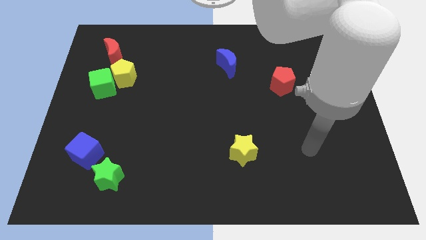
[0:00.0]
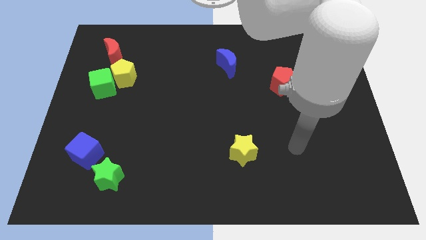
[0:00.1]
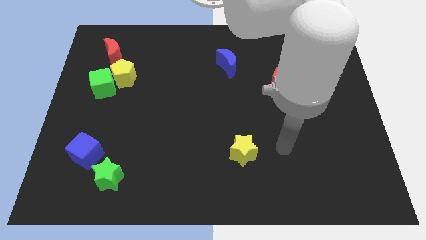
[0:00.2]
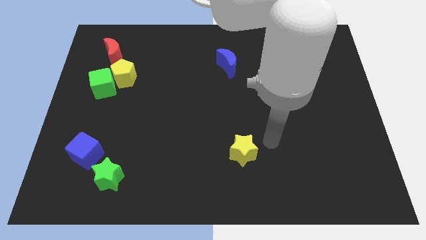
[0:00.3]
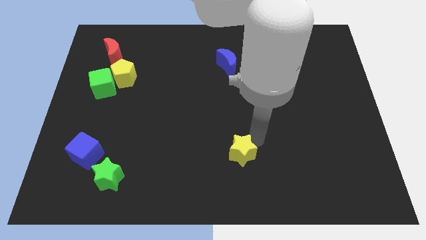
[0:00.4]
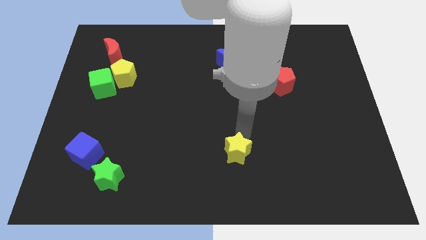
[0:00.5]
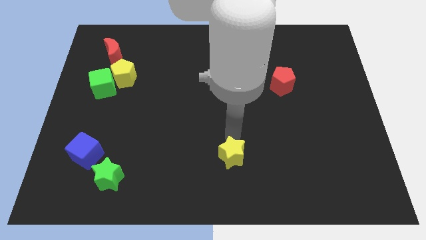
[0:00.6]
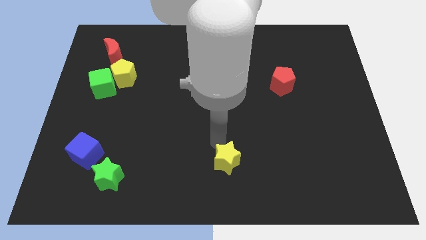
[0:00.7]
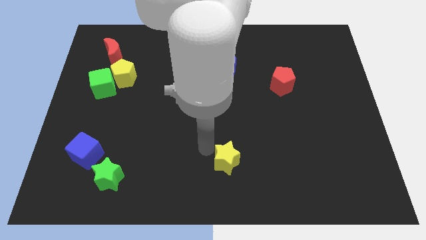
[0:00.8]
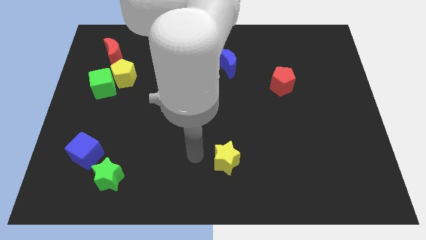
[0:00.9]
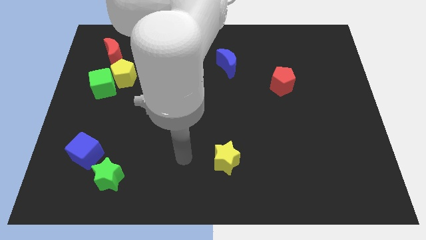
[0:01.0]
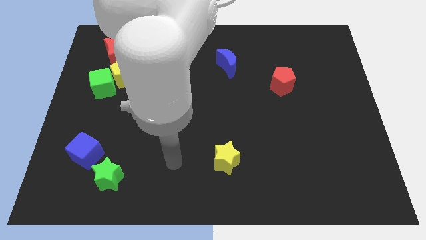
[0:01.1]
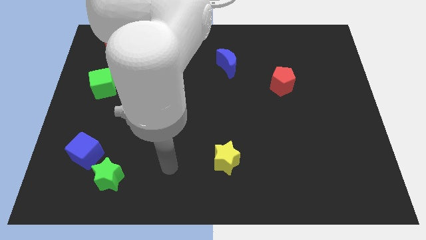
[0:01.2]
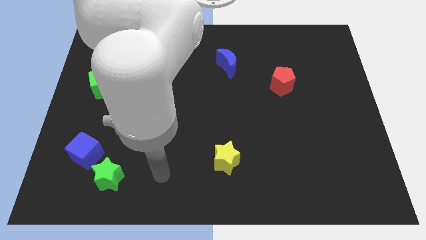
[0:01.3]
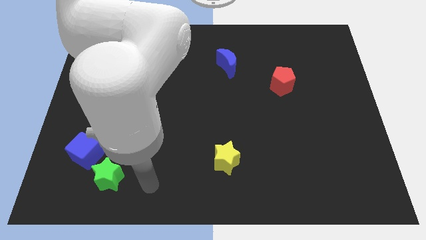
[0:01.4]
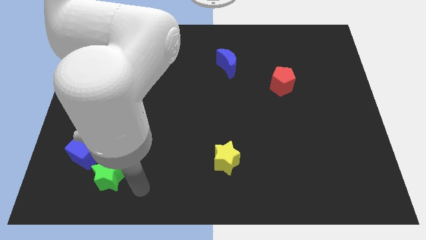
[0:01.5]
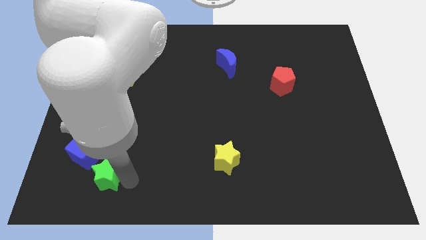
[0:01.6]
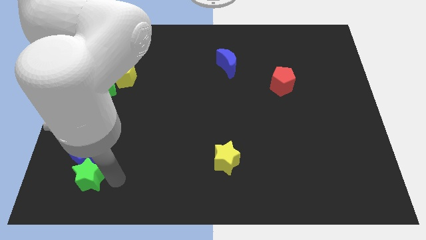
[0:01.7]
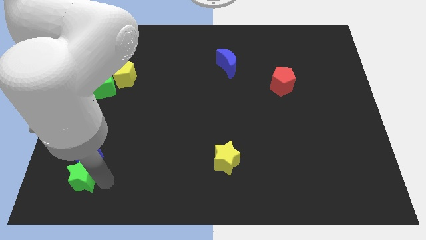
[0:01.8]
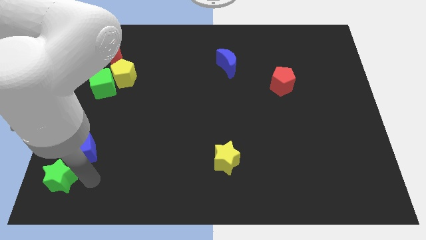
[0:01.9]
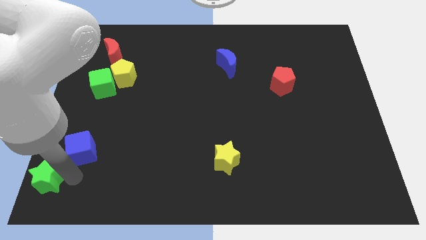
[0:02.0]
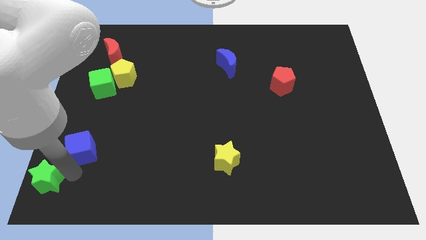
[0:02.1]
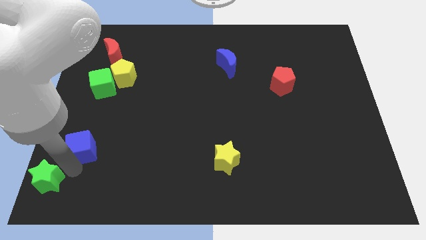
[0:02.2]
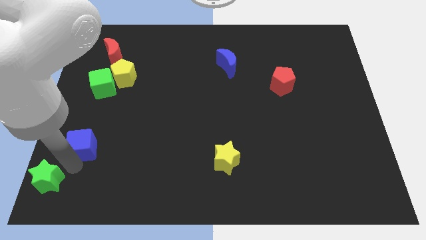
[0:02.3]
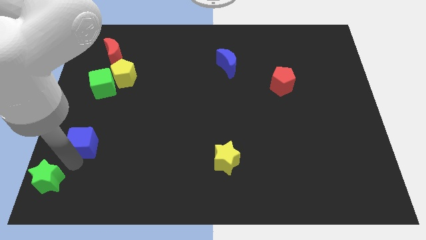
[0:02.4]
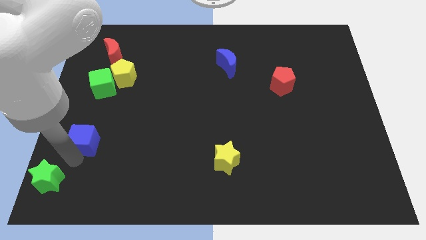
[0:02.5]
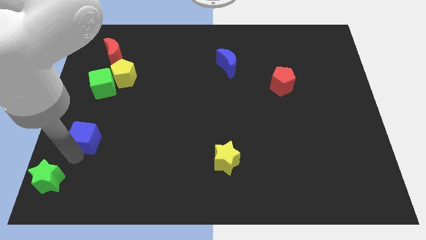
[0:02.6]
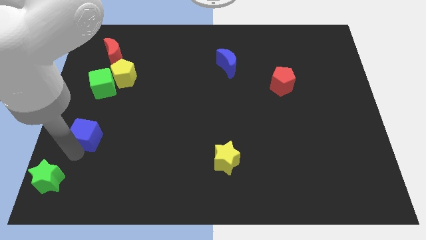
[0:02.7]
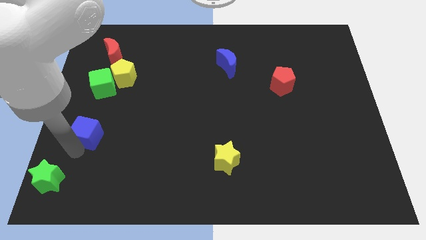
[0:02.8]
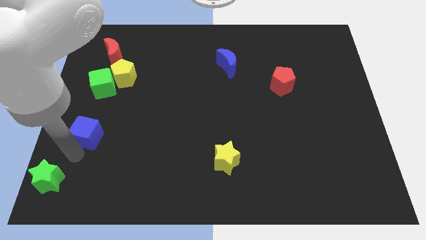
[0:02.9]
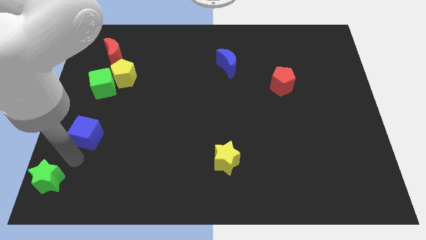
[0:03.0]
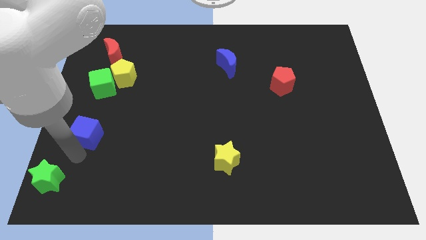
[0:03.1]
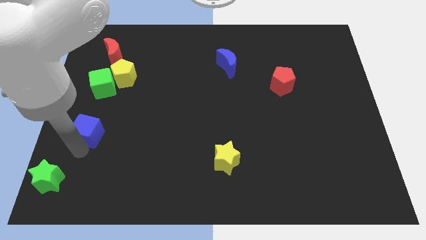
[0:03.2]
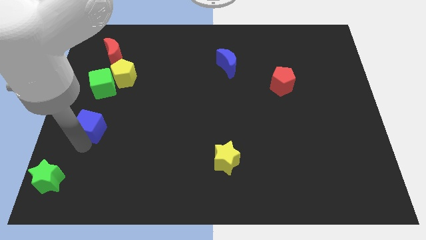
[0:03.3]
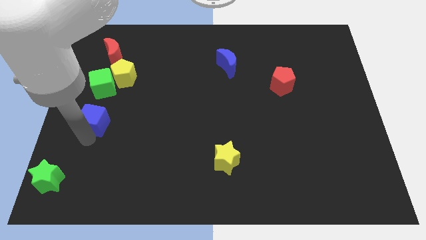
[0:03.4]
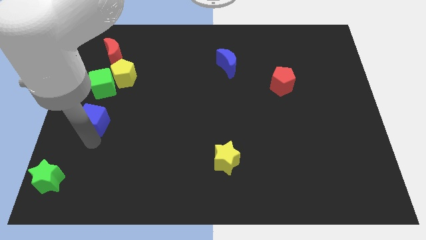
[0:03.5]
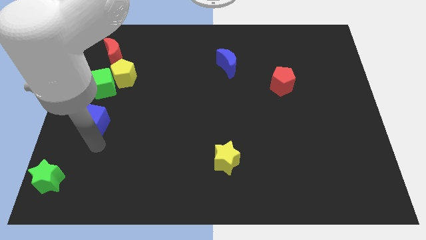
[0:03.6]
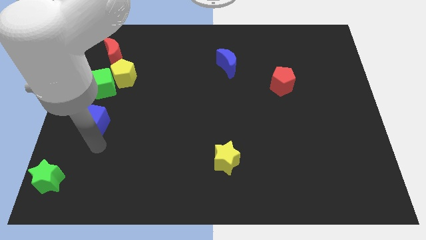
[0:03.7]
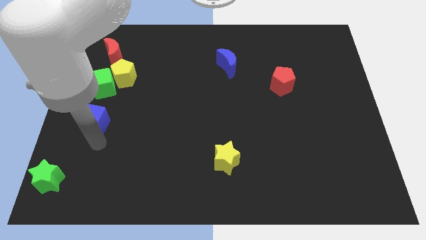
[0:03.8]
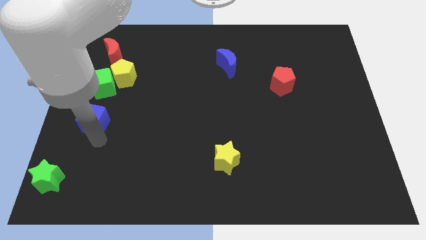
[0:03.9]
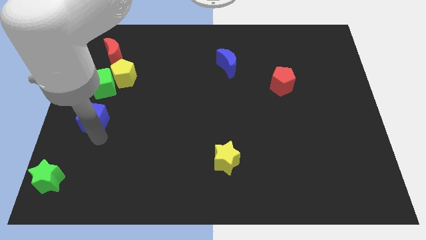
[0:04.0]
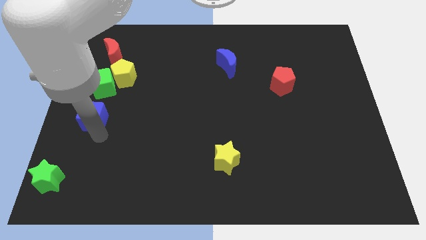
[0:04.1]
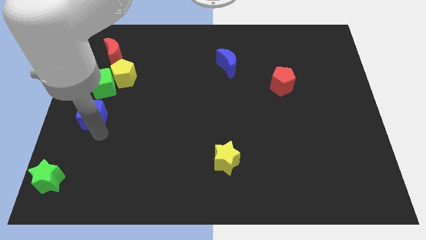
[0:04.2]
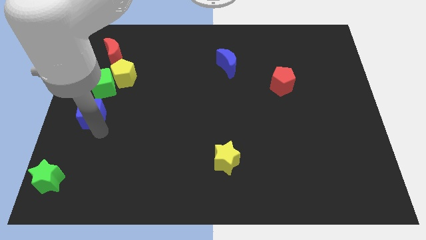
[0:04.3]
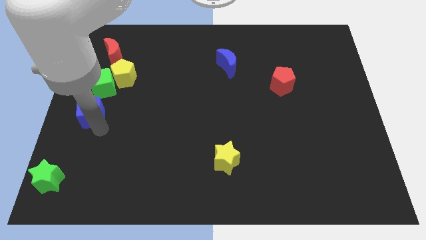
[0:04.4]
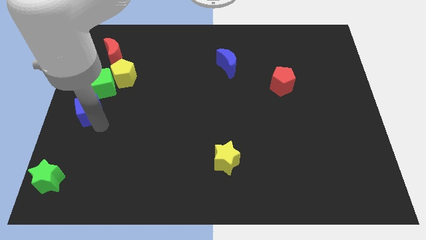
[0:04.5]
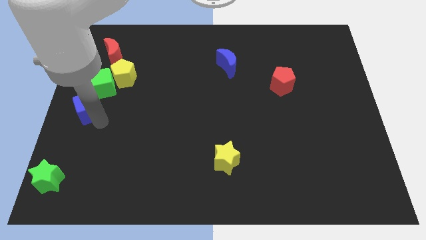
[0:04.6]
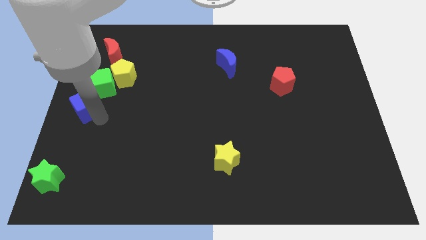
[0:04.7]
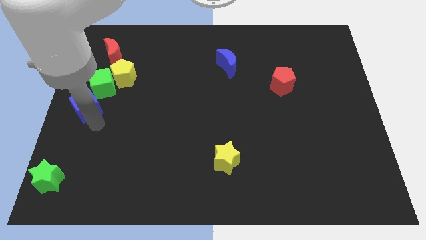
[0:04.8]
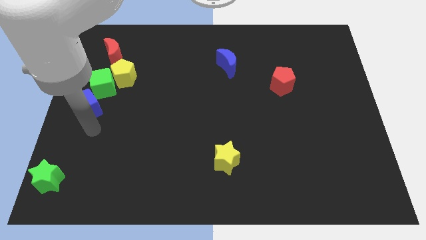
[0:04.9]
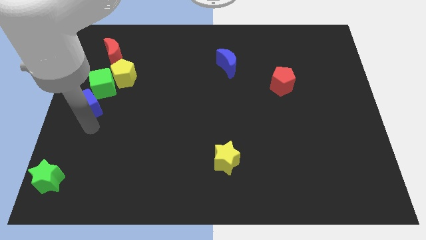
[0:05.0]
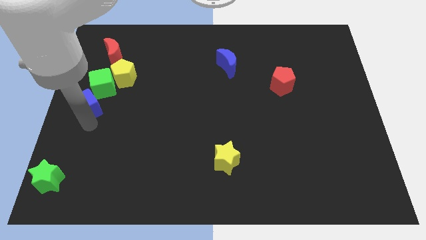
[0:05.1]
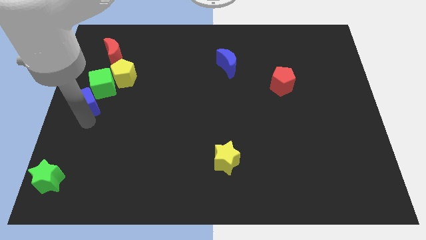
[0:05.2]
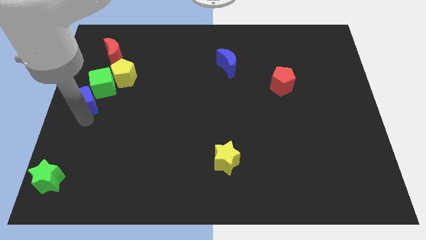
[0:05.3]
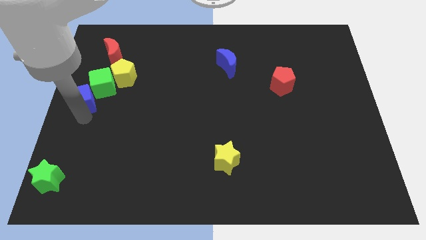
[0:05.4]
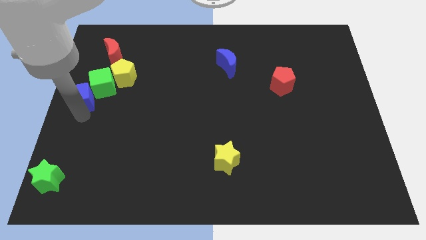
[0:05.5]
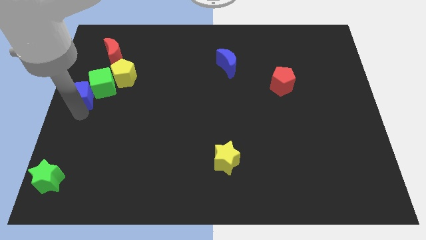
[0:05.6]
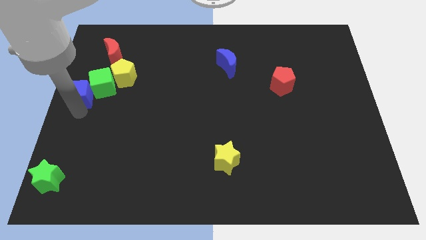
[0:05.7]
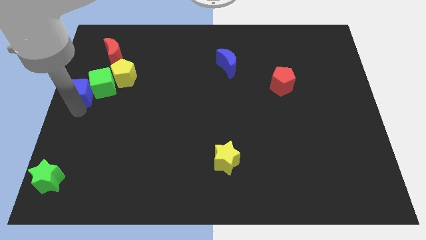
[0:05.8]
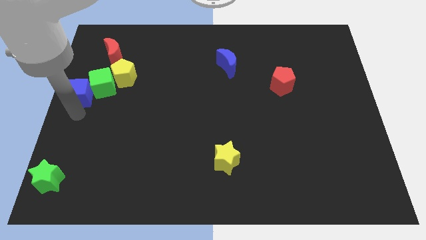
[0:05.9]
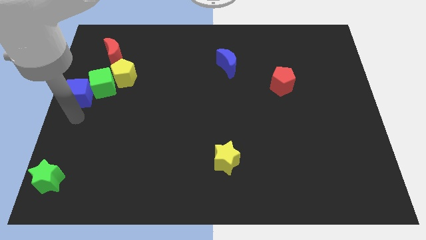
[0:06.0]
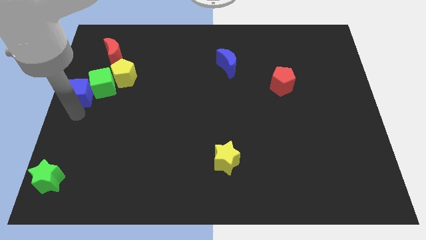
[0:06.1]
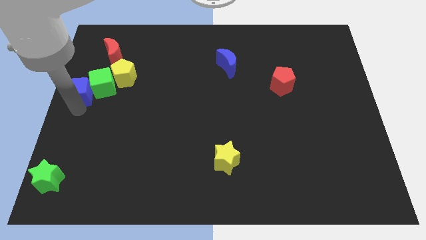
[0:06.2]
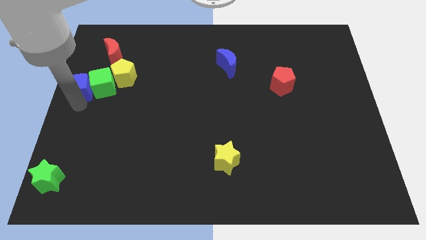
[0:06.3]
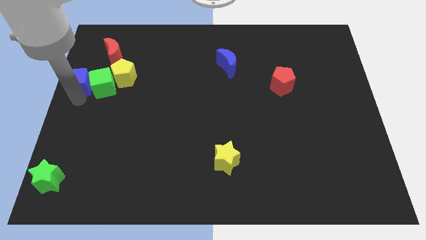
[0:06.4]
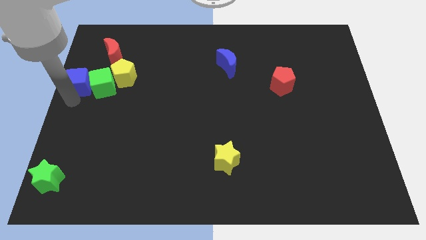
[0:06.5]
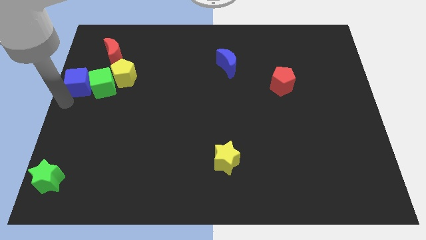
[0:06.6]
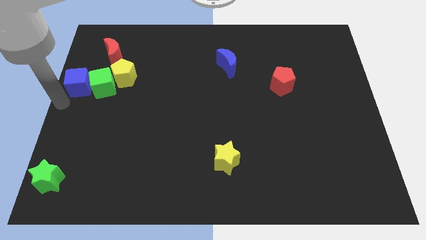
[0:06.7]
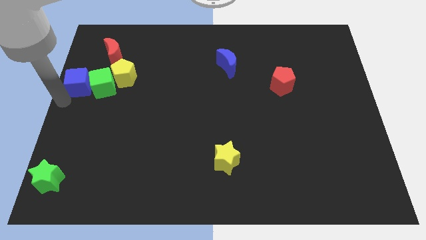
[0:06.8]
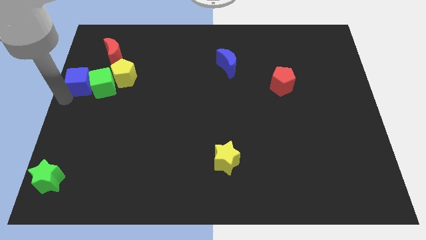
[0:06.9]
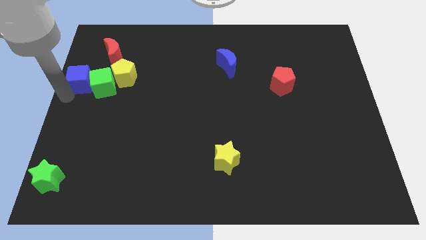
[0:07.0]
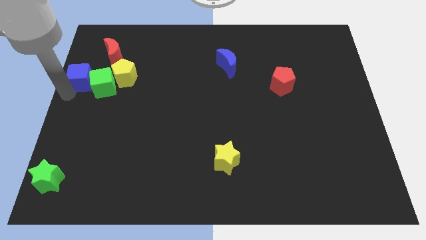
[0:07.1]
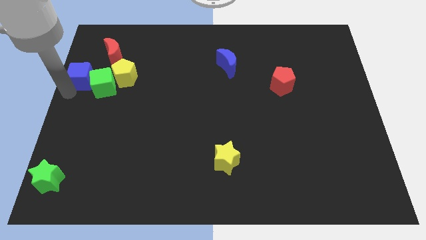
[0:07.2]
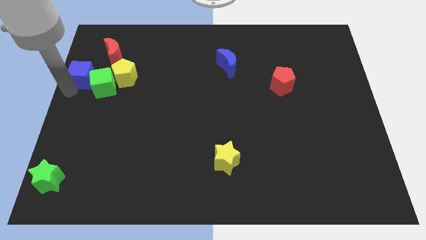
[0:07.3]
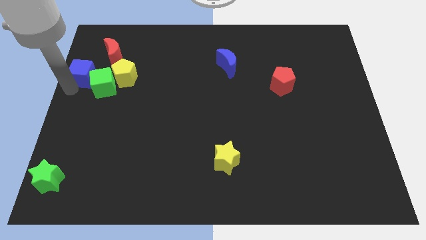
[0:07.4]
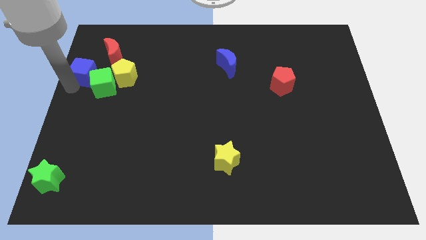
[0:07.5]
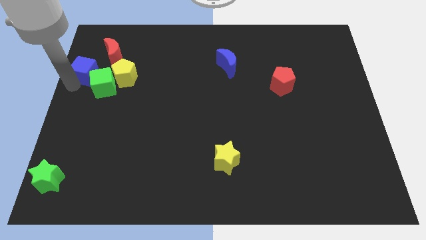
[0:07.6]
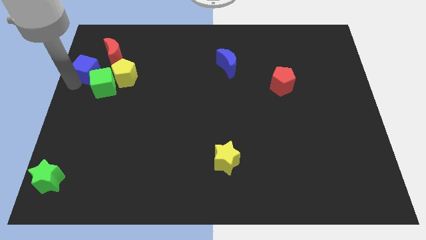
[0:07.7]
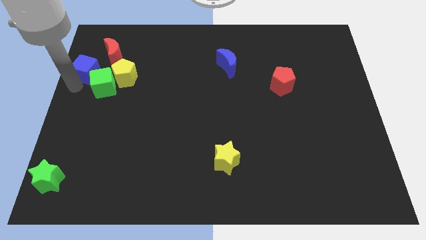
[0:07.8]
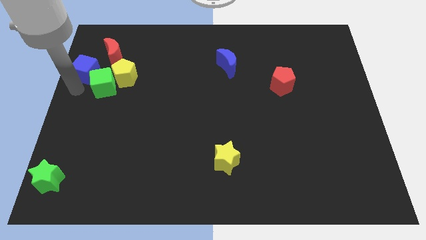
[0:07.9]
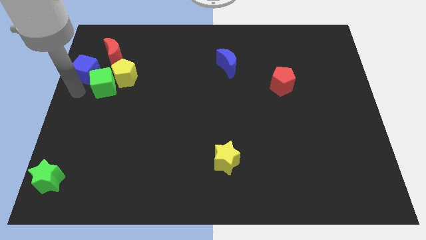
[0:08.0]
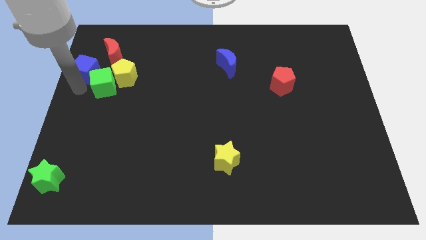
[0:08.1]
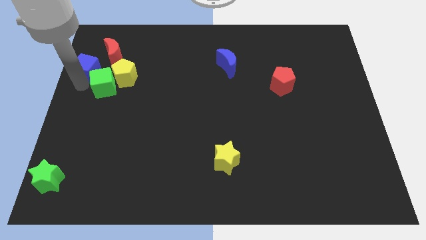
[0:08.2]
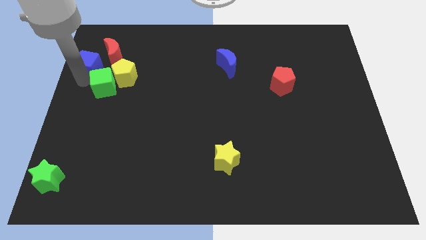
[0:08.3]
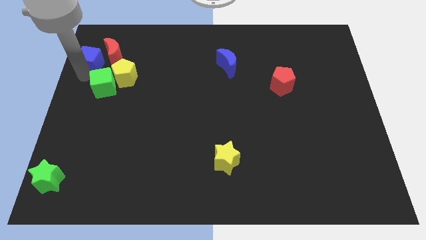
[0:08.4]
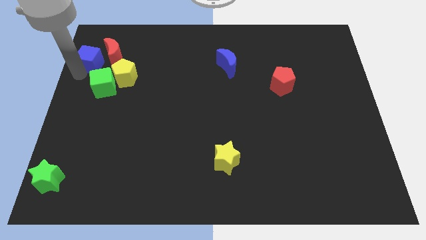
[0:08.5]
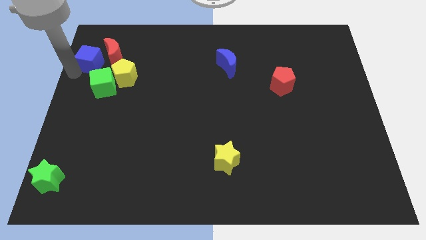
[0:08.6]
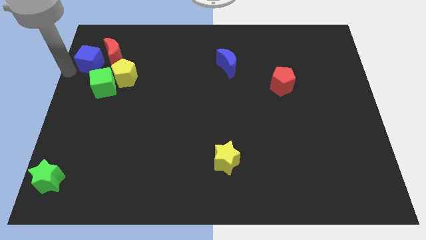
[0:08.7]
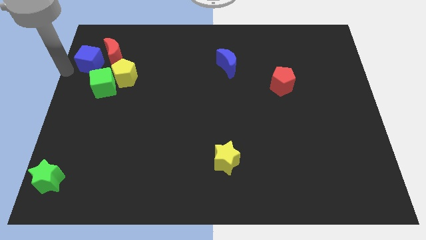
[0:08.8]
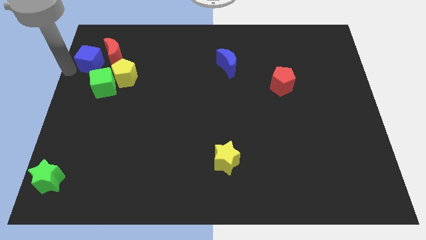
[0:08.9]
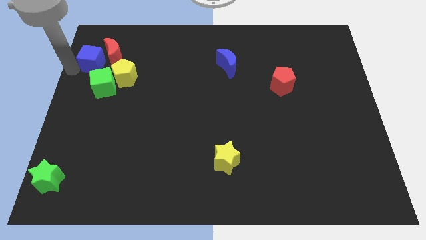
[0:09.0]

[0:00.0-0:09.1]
push the blue cube next to the red moon
